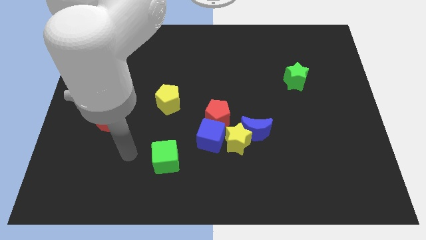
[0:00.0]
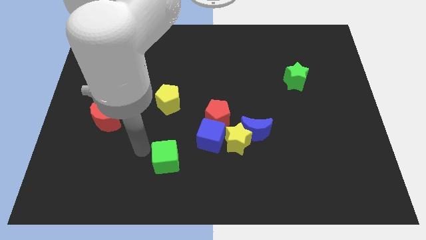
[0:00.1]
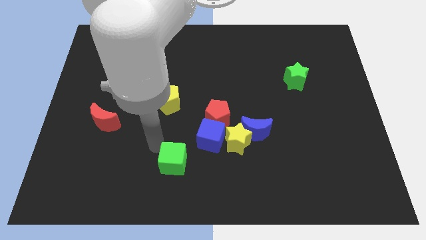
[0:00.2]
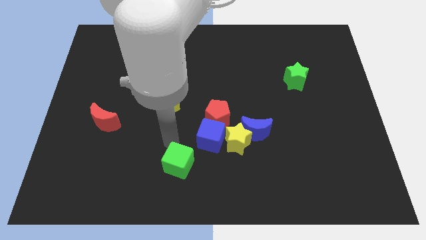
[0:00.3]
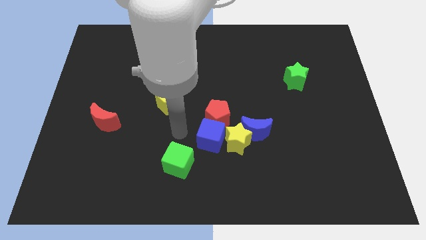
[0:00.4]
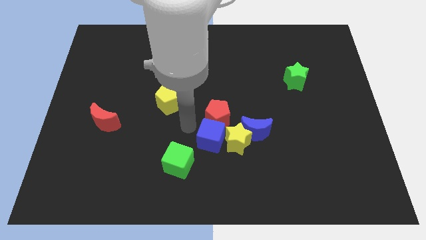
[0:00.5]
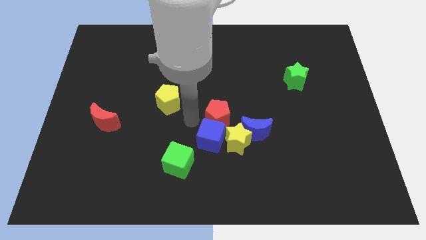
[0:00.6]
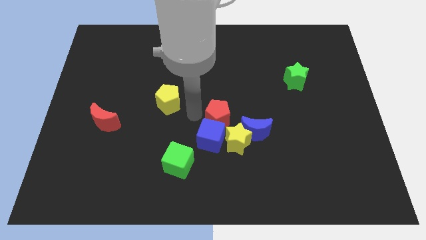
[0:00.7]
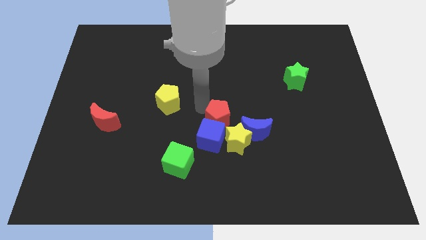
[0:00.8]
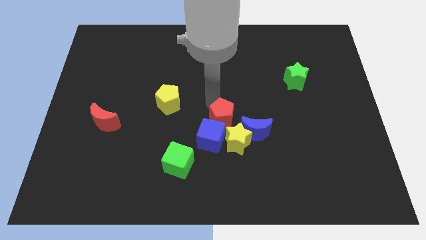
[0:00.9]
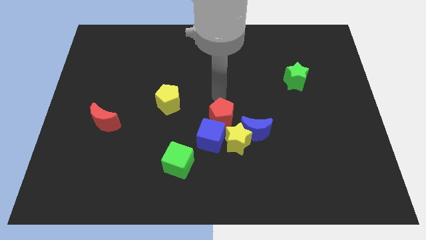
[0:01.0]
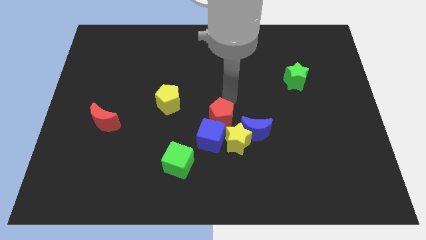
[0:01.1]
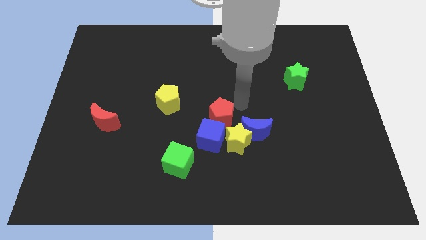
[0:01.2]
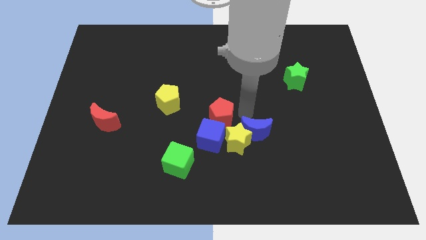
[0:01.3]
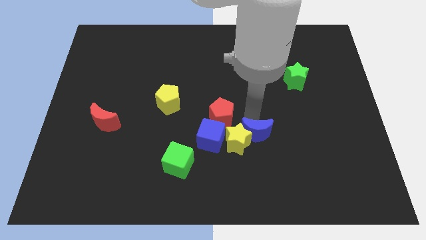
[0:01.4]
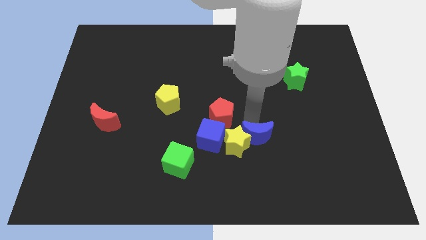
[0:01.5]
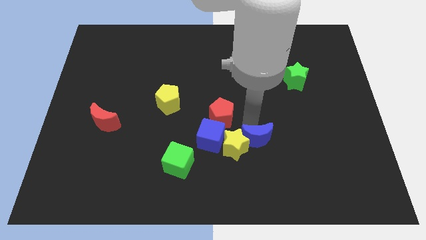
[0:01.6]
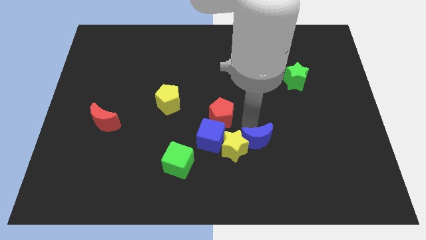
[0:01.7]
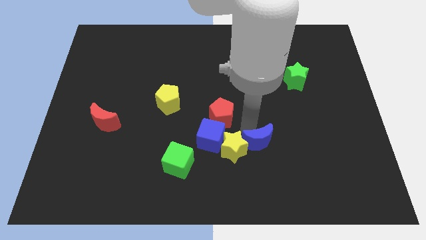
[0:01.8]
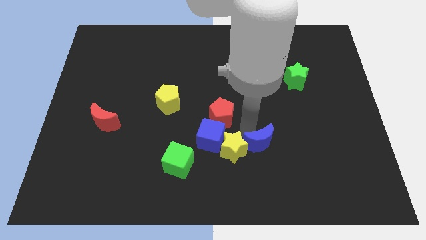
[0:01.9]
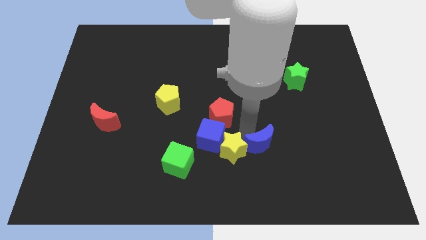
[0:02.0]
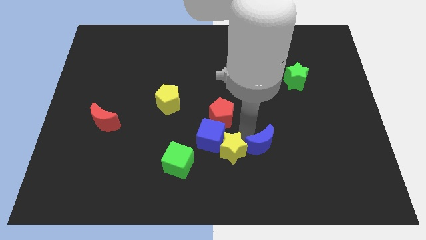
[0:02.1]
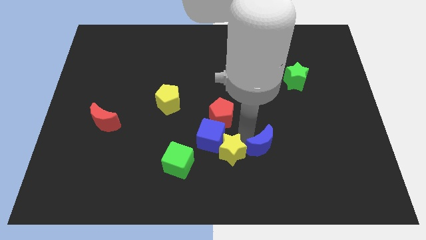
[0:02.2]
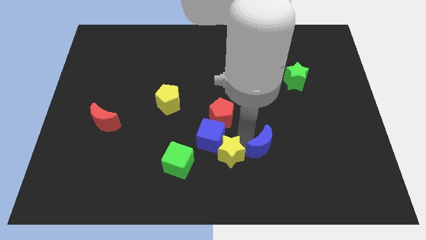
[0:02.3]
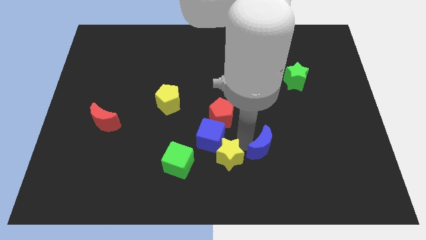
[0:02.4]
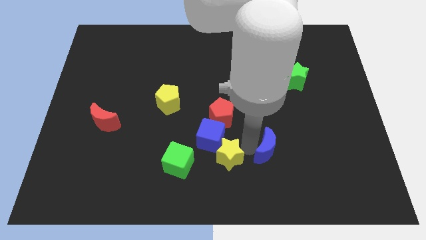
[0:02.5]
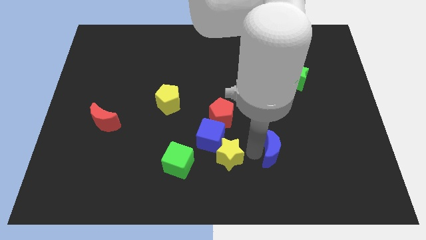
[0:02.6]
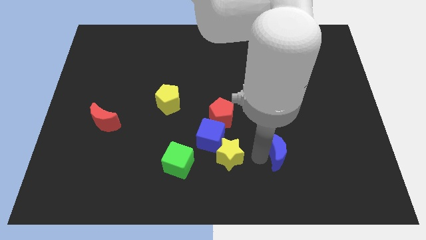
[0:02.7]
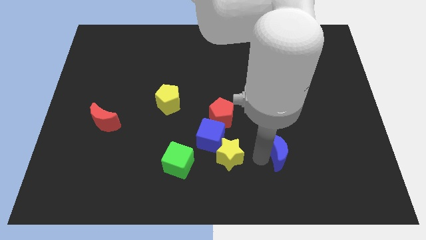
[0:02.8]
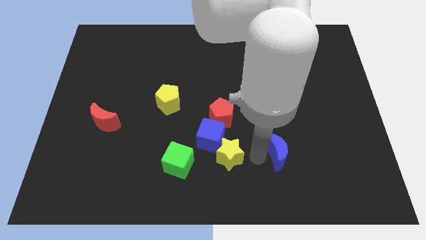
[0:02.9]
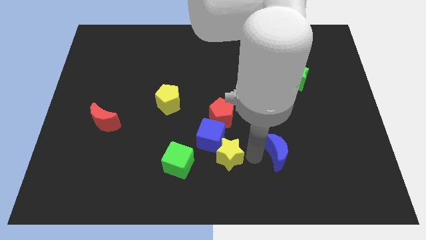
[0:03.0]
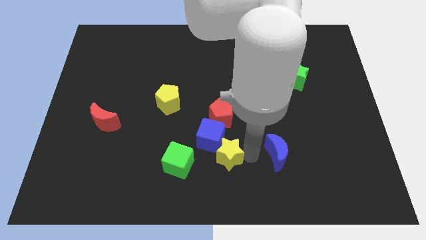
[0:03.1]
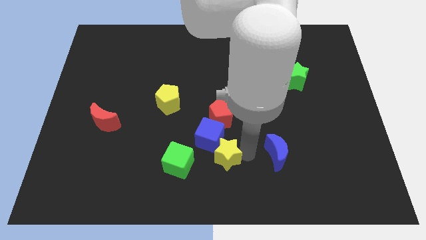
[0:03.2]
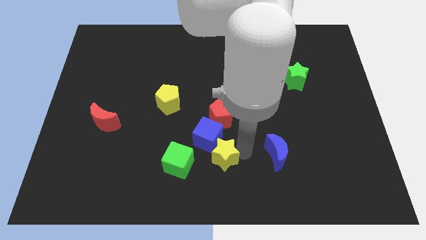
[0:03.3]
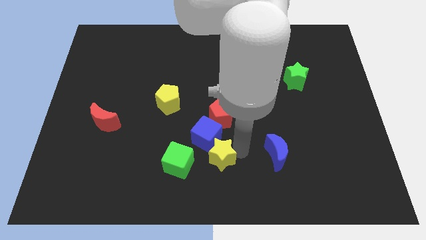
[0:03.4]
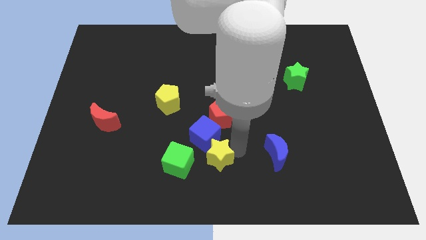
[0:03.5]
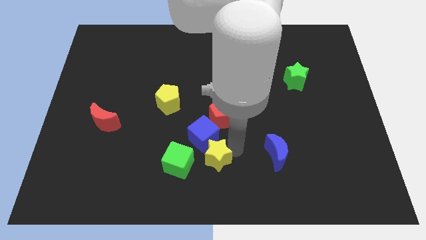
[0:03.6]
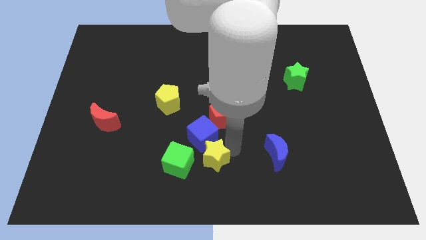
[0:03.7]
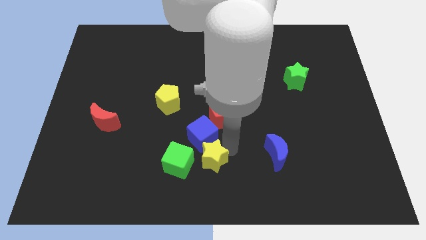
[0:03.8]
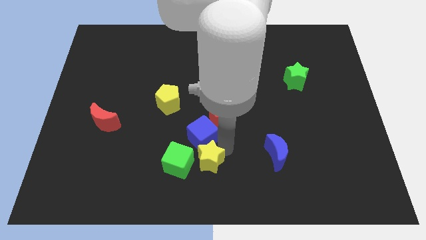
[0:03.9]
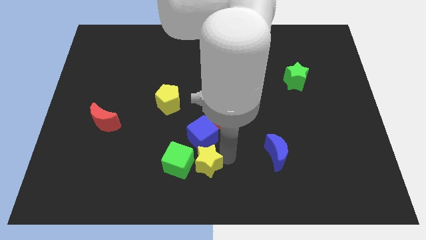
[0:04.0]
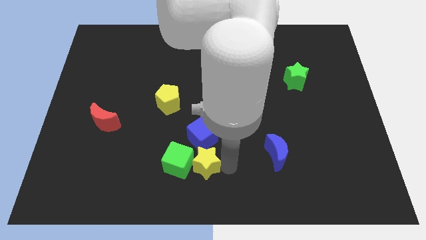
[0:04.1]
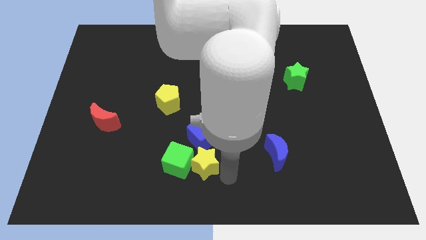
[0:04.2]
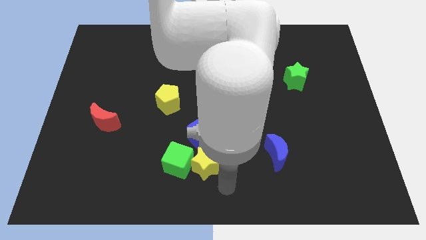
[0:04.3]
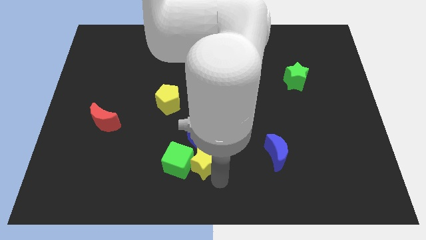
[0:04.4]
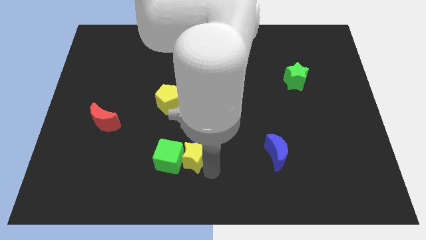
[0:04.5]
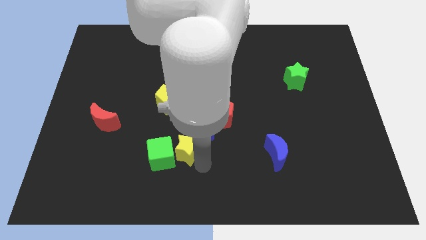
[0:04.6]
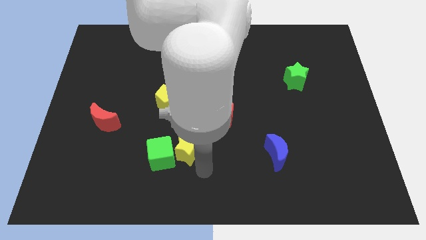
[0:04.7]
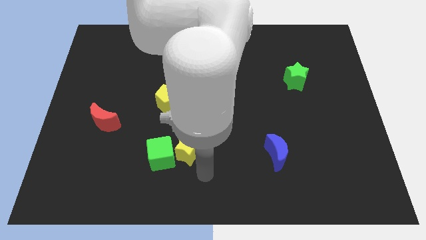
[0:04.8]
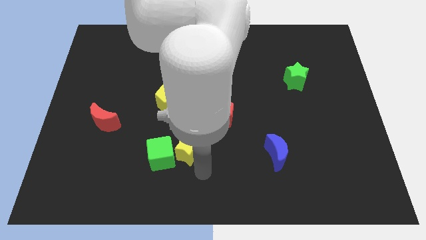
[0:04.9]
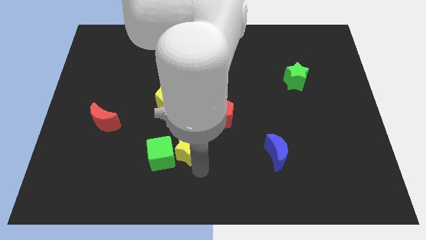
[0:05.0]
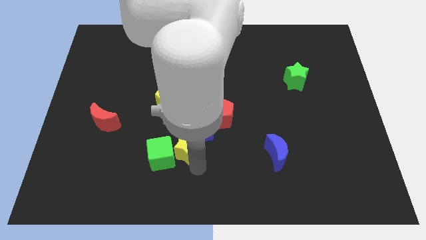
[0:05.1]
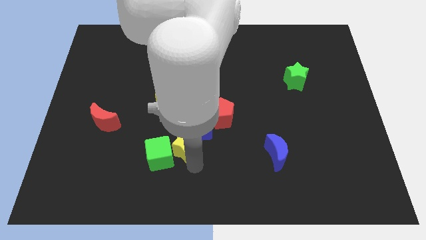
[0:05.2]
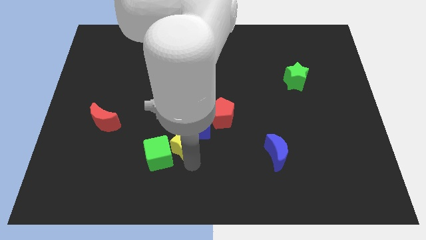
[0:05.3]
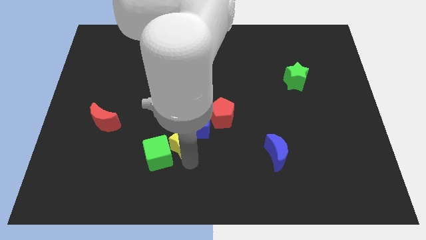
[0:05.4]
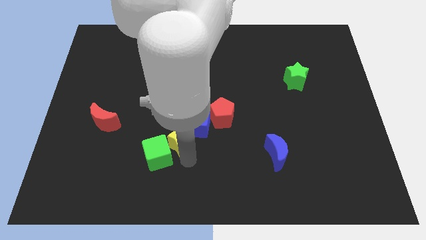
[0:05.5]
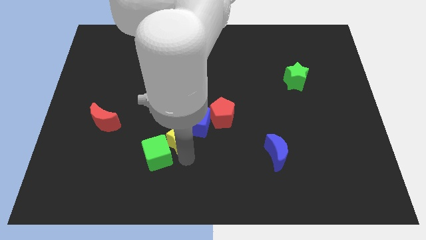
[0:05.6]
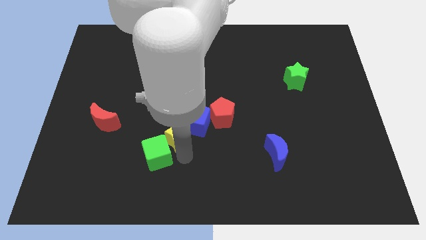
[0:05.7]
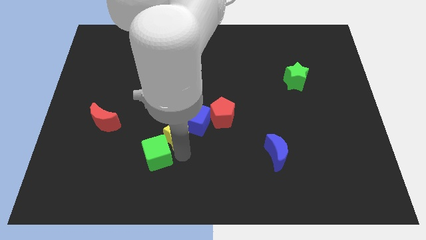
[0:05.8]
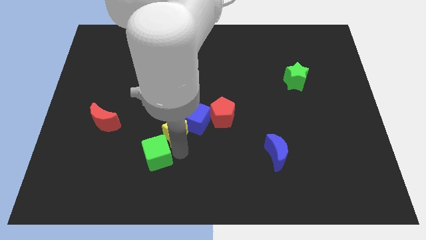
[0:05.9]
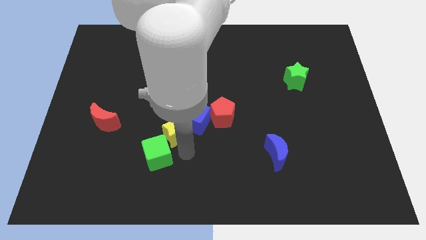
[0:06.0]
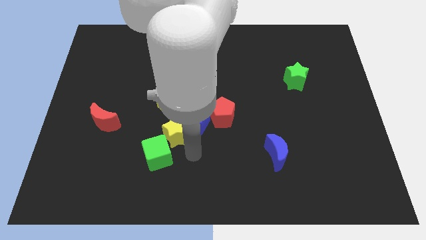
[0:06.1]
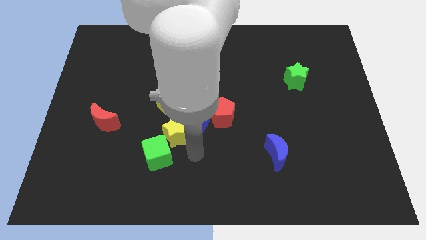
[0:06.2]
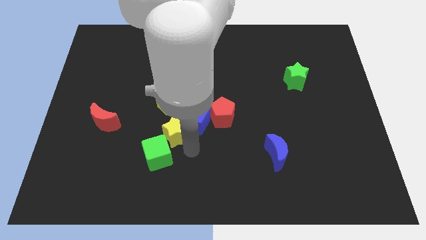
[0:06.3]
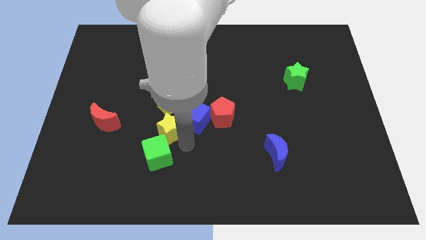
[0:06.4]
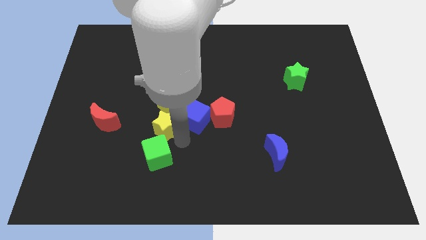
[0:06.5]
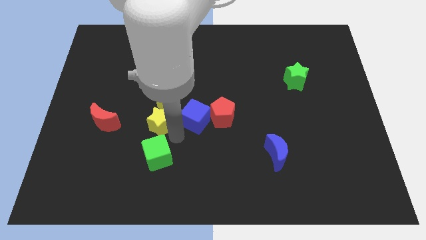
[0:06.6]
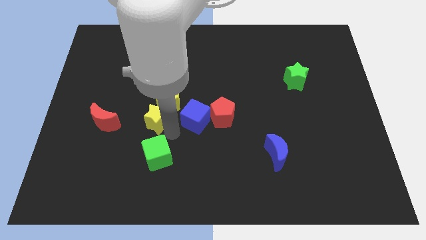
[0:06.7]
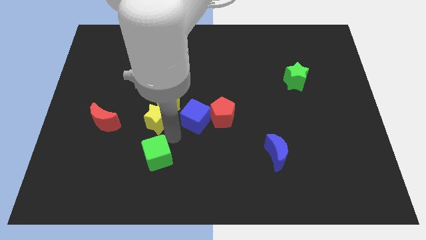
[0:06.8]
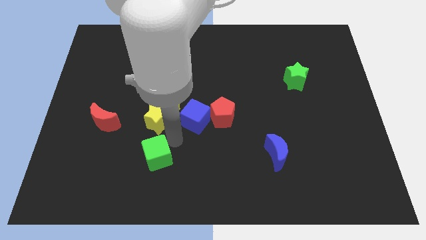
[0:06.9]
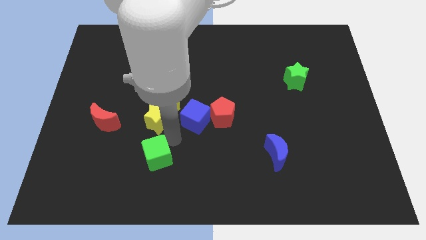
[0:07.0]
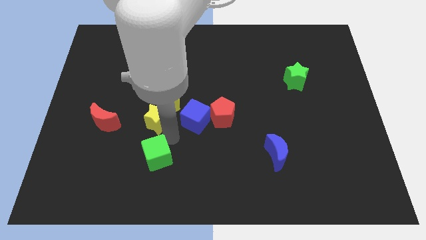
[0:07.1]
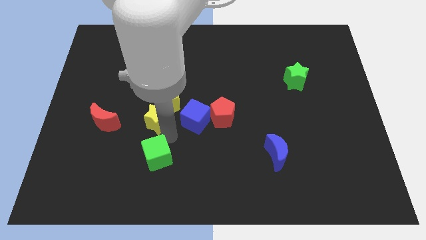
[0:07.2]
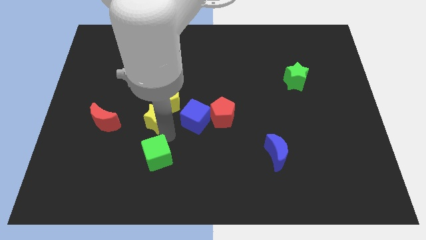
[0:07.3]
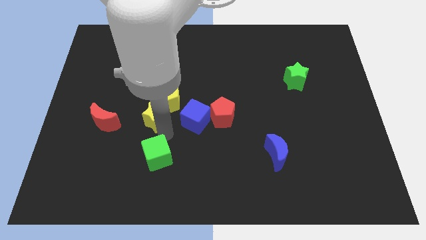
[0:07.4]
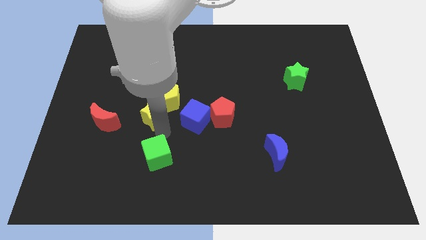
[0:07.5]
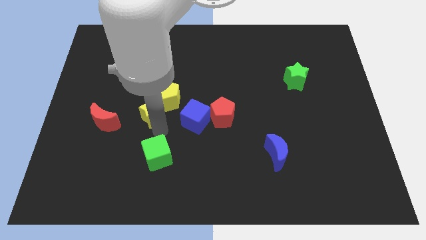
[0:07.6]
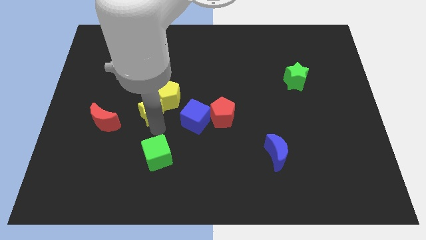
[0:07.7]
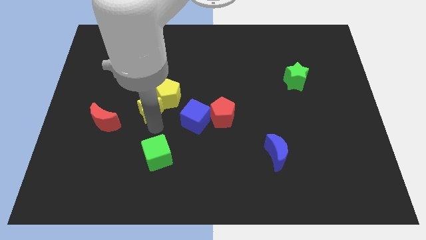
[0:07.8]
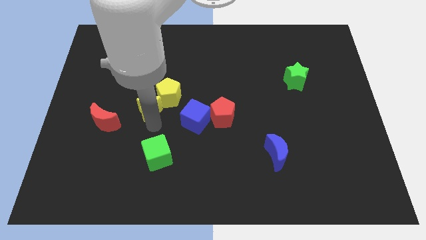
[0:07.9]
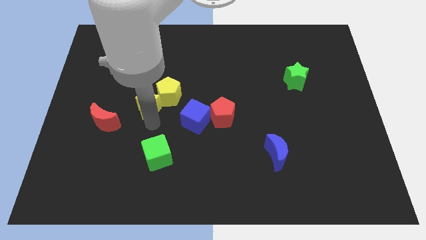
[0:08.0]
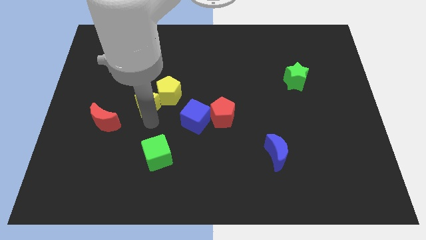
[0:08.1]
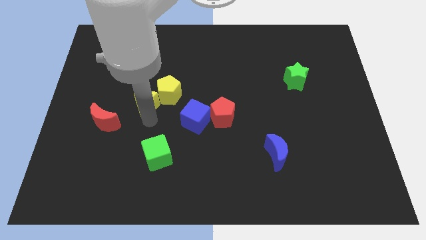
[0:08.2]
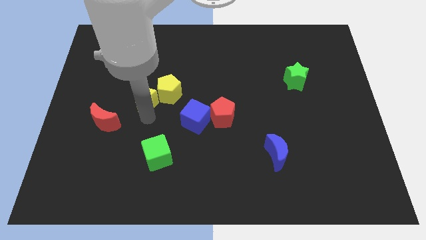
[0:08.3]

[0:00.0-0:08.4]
push the yellow star up and then left
